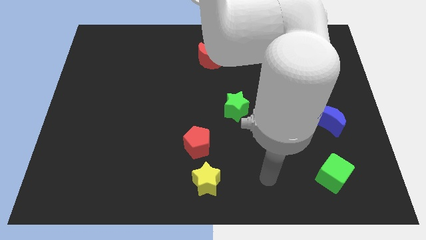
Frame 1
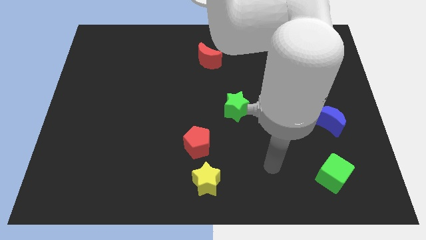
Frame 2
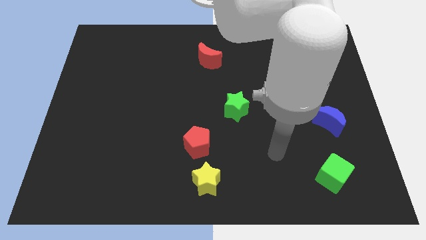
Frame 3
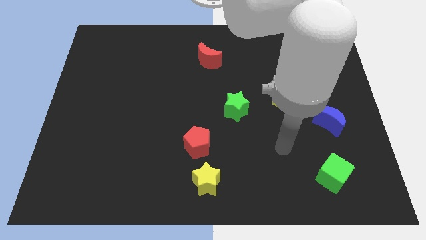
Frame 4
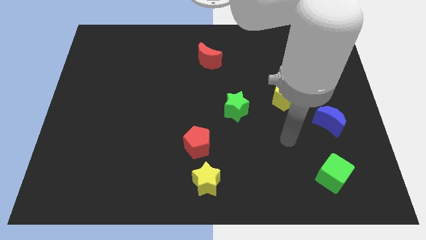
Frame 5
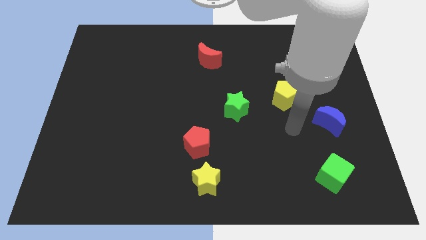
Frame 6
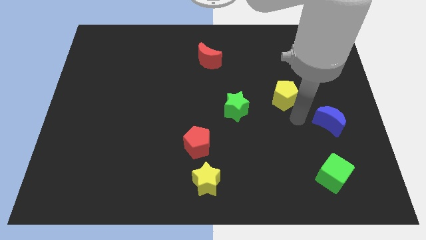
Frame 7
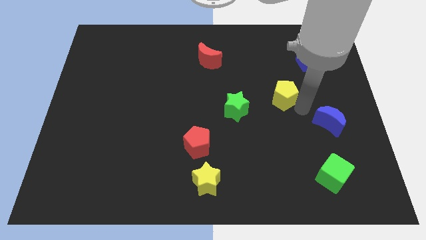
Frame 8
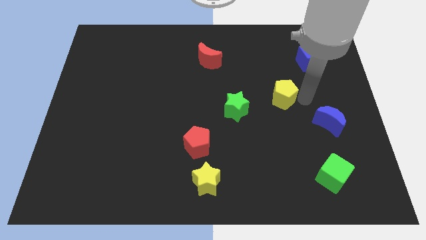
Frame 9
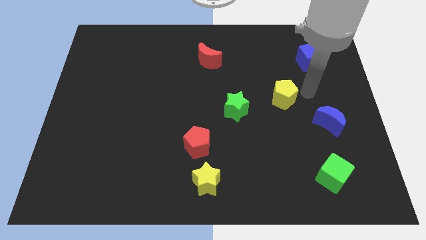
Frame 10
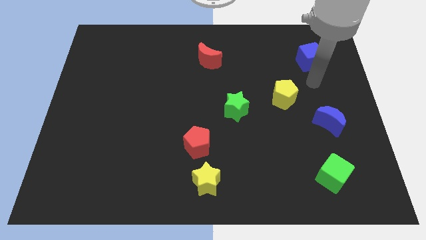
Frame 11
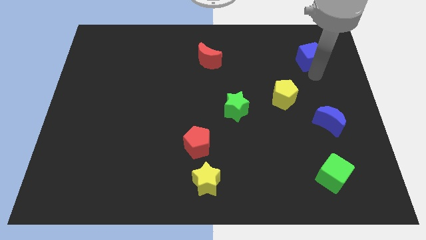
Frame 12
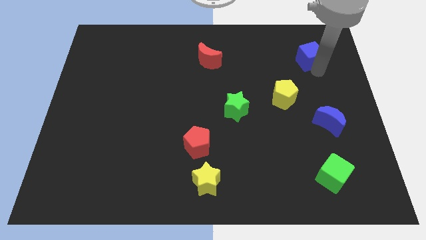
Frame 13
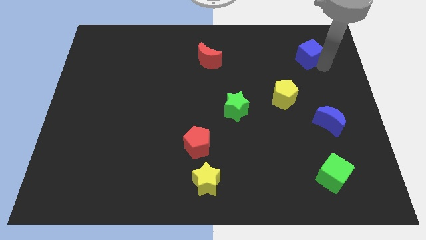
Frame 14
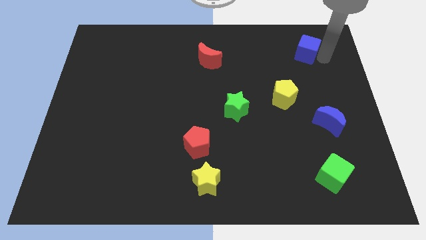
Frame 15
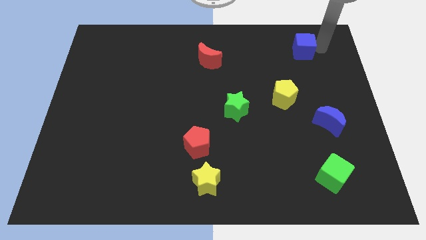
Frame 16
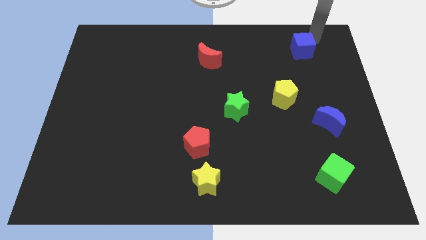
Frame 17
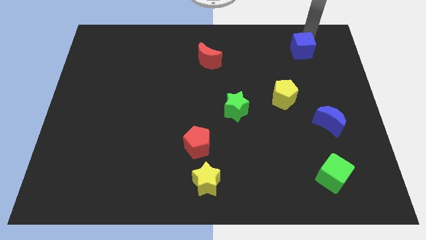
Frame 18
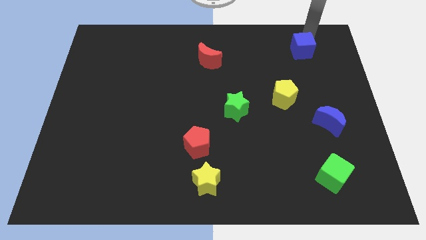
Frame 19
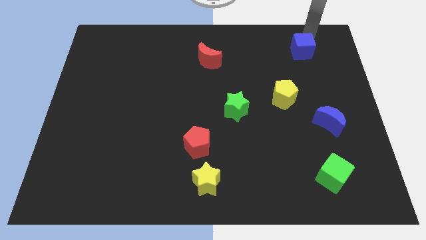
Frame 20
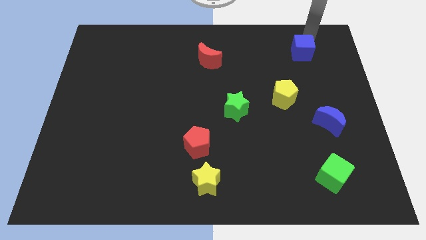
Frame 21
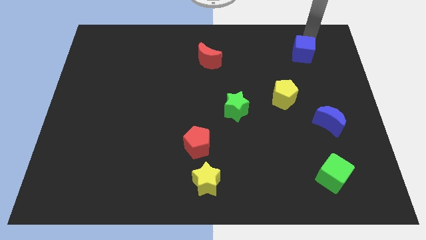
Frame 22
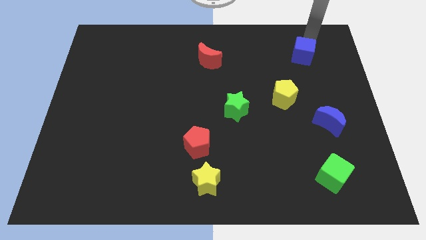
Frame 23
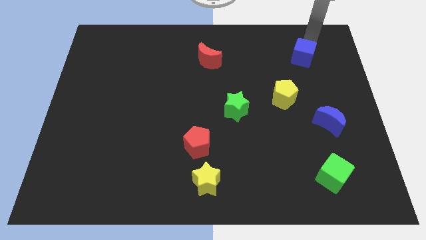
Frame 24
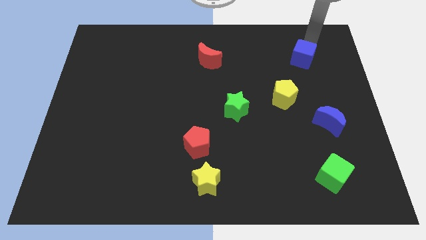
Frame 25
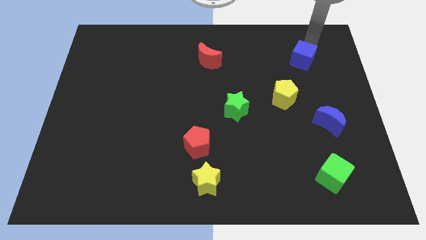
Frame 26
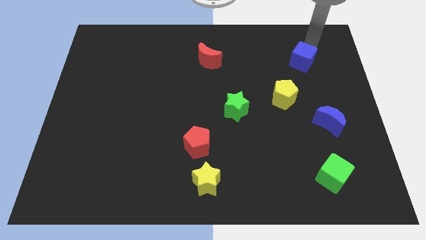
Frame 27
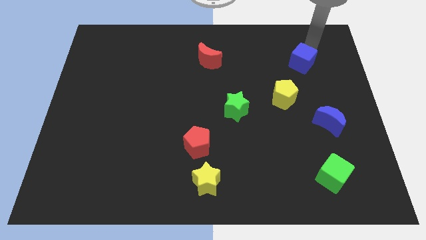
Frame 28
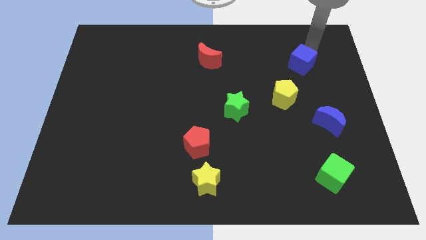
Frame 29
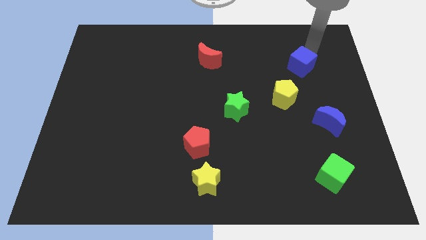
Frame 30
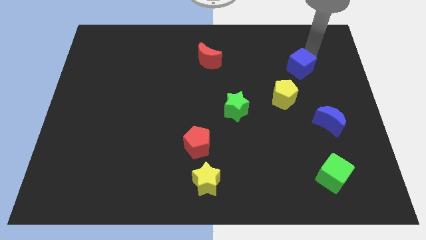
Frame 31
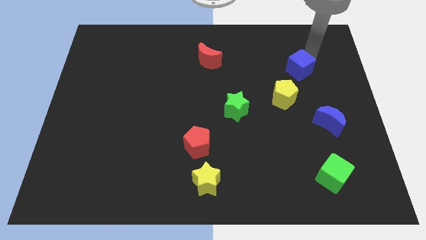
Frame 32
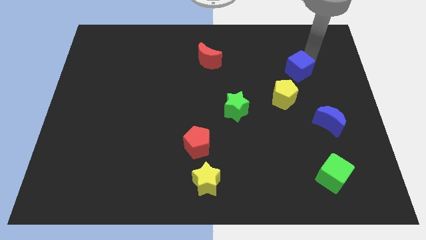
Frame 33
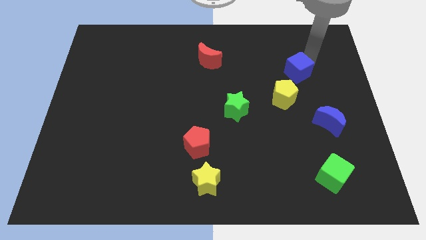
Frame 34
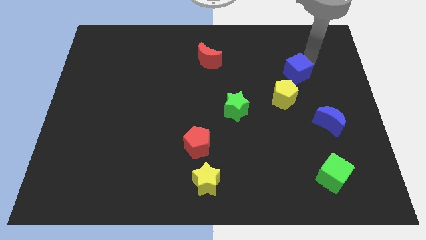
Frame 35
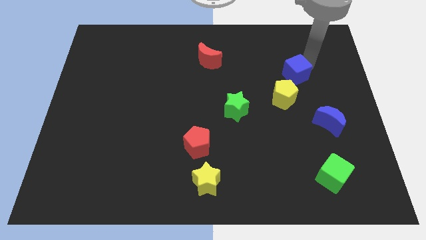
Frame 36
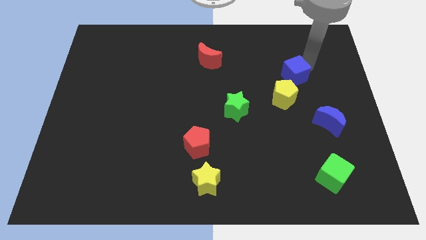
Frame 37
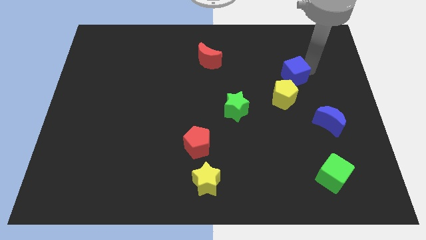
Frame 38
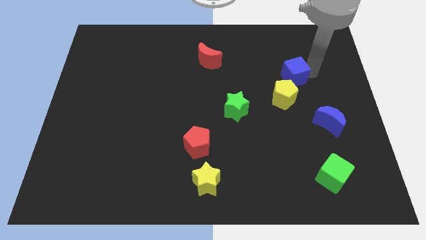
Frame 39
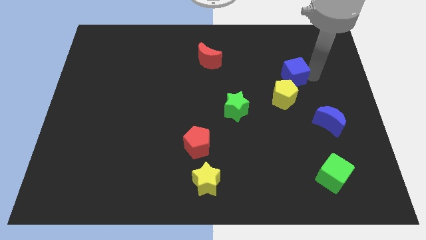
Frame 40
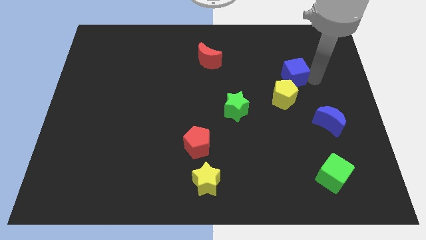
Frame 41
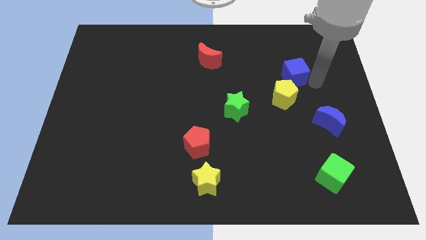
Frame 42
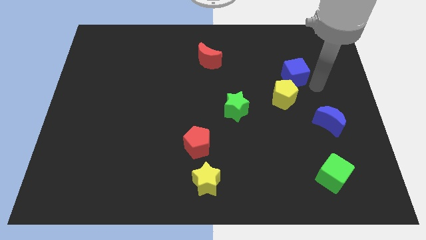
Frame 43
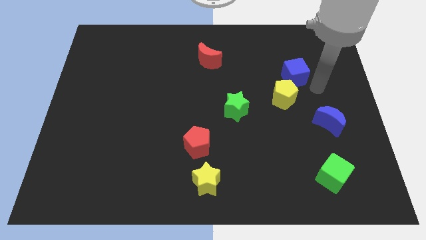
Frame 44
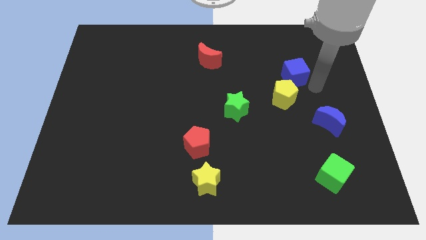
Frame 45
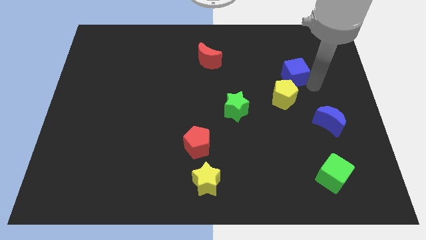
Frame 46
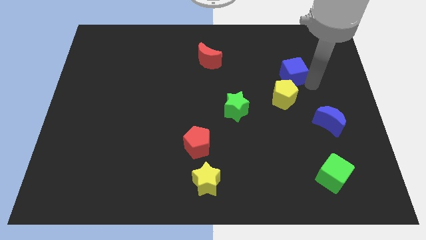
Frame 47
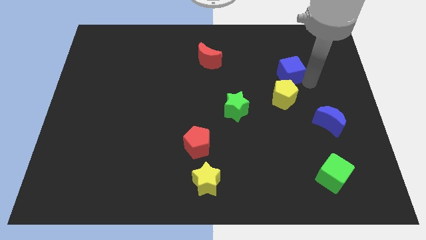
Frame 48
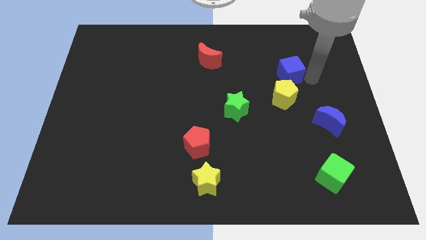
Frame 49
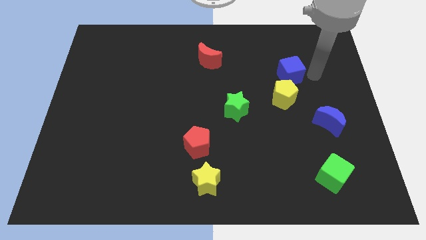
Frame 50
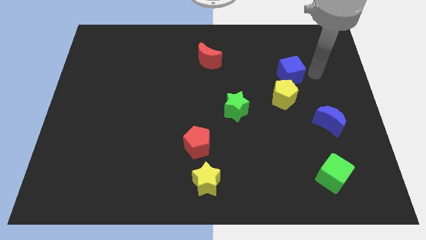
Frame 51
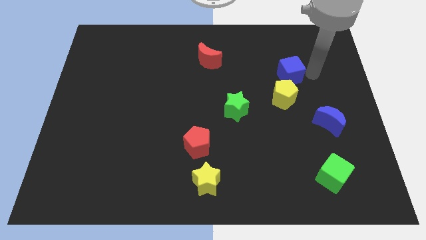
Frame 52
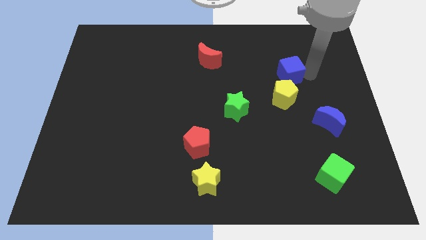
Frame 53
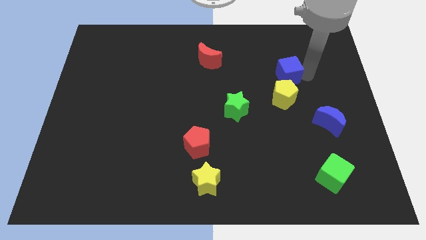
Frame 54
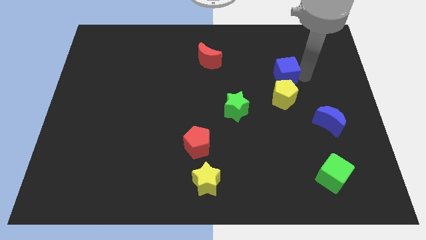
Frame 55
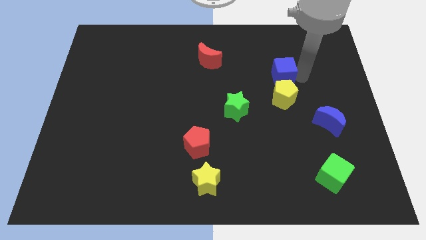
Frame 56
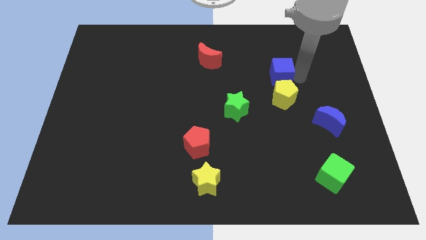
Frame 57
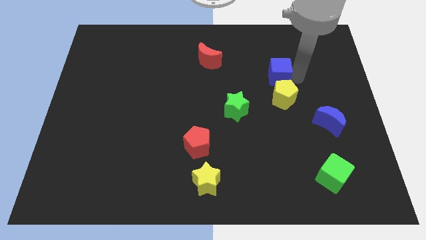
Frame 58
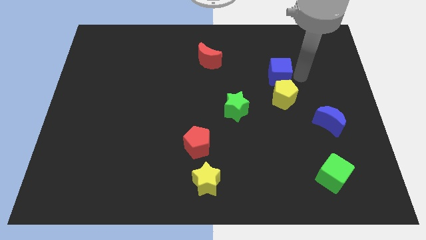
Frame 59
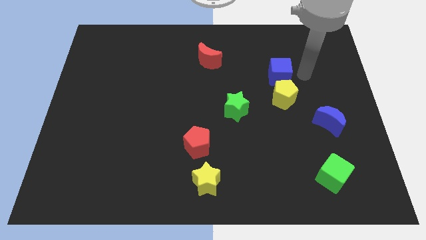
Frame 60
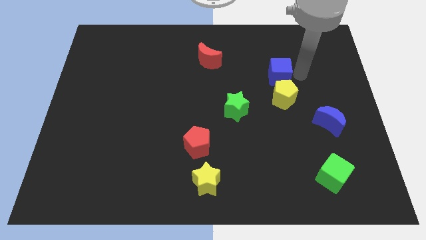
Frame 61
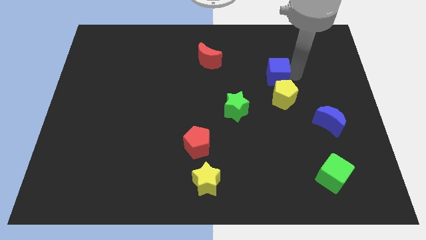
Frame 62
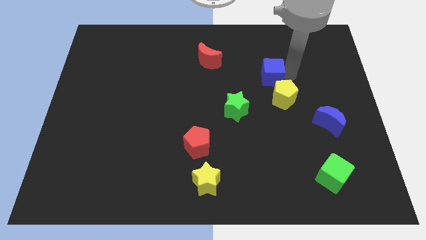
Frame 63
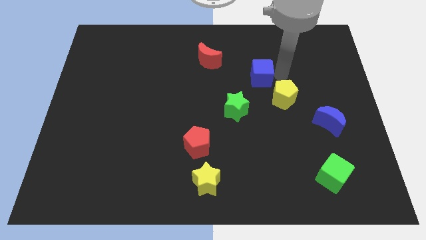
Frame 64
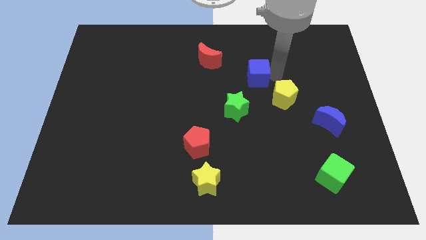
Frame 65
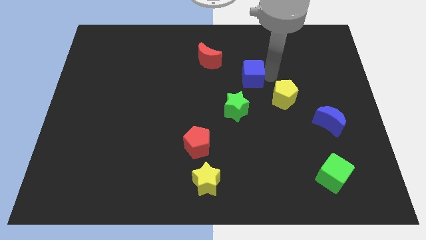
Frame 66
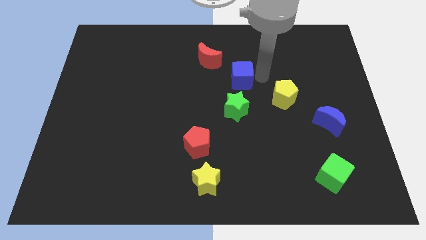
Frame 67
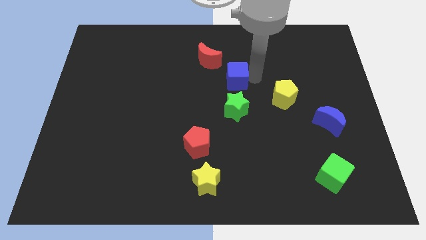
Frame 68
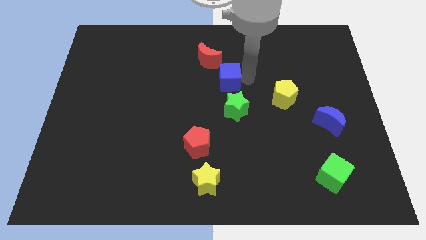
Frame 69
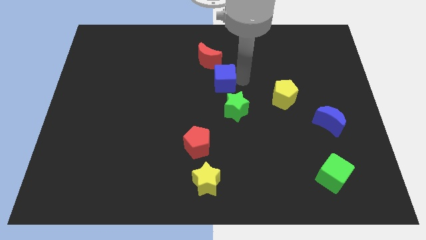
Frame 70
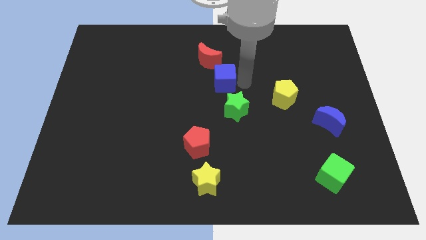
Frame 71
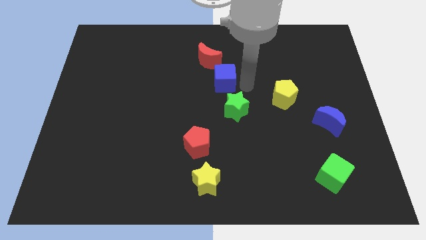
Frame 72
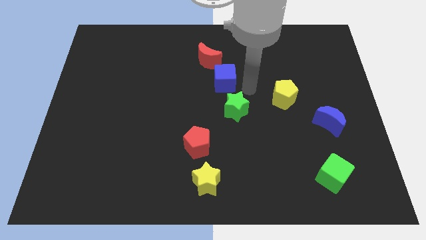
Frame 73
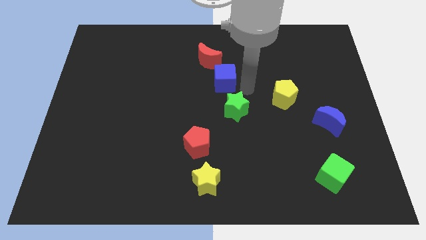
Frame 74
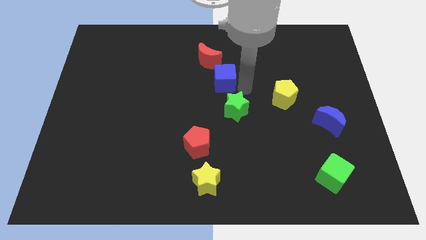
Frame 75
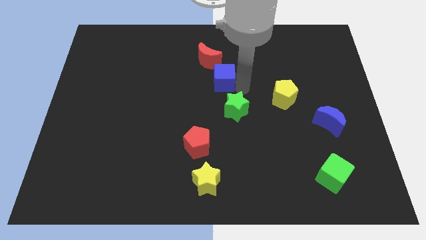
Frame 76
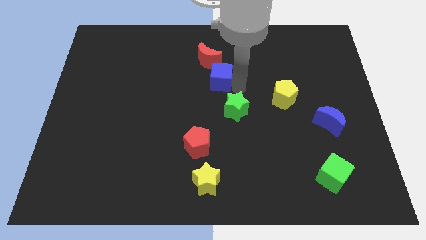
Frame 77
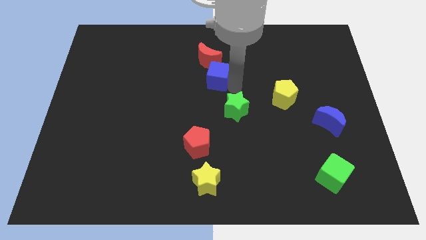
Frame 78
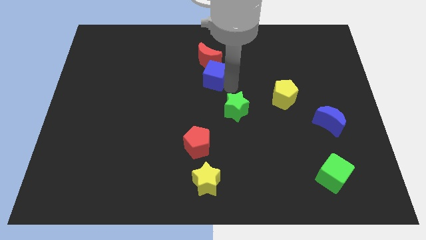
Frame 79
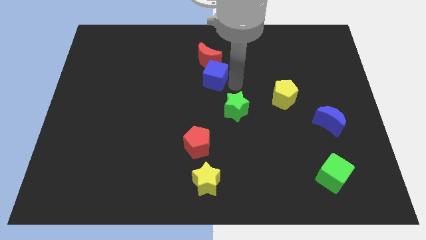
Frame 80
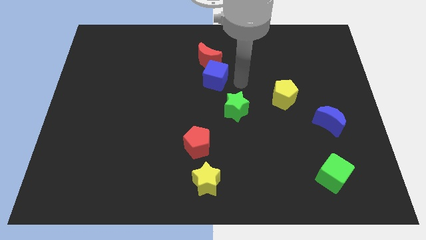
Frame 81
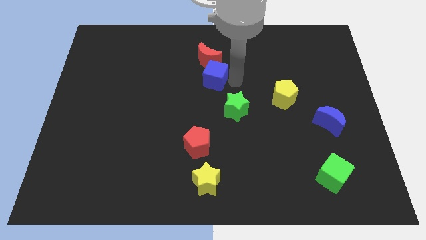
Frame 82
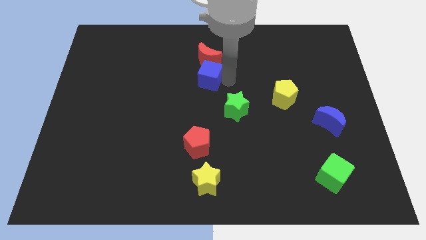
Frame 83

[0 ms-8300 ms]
move the blue cube diagonally down and to the left of the red moon
